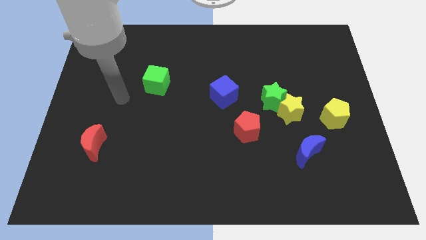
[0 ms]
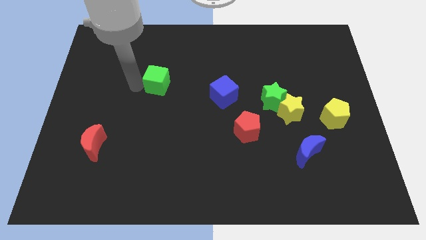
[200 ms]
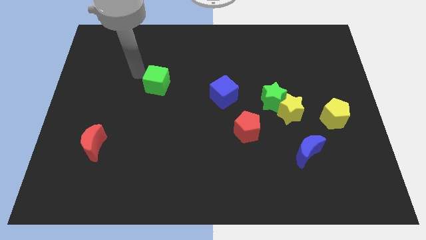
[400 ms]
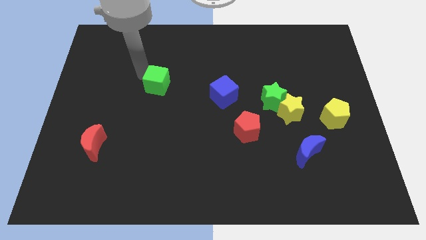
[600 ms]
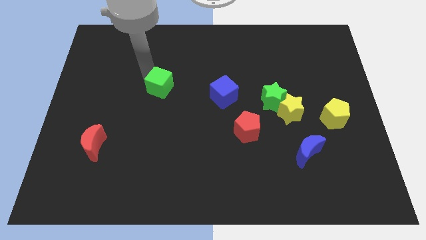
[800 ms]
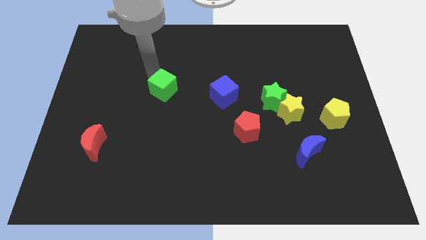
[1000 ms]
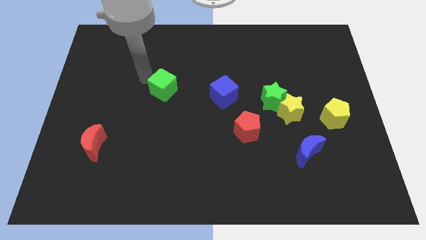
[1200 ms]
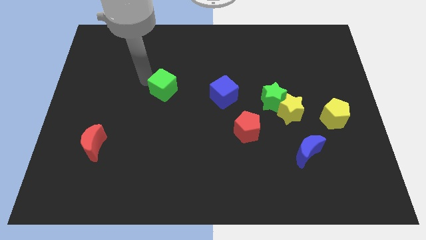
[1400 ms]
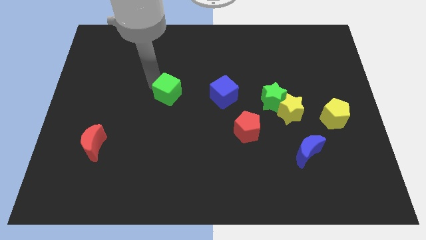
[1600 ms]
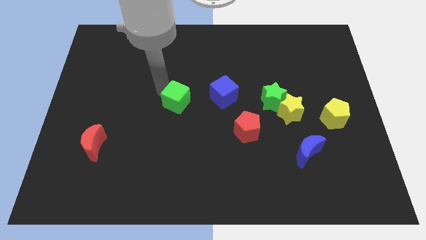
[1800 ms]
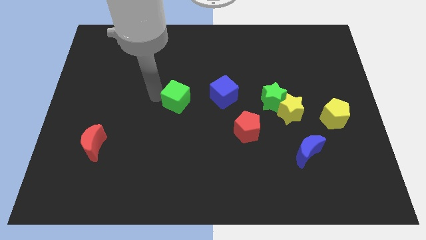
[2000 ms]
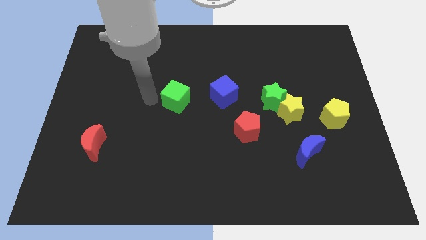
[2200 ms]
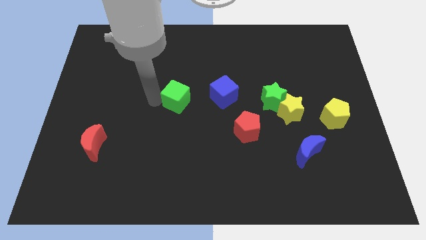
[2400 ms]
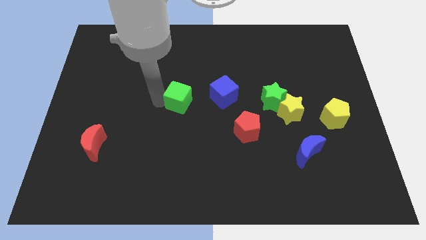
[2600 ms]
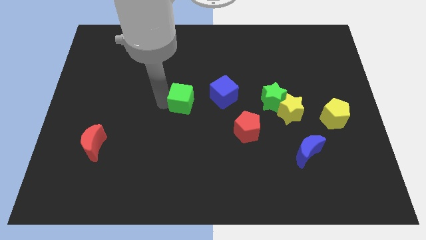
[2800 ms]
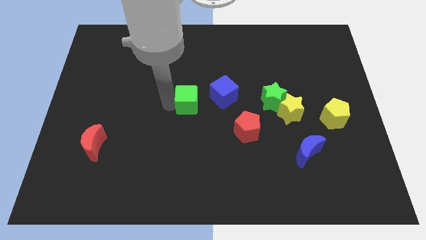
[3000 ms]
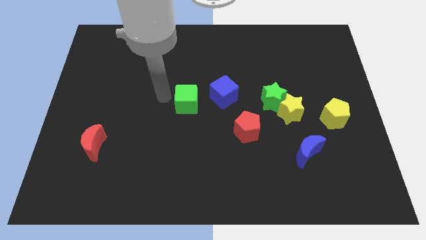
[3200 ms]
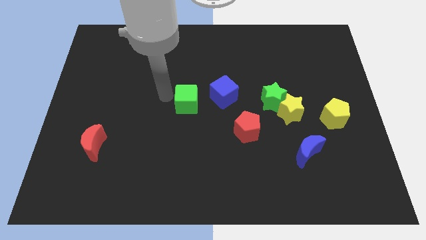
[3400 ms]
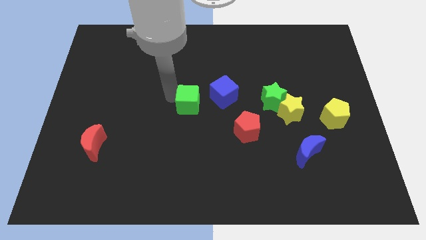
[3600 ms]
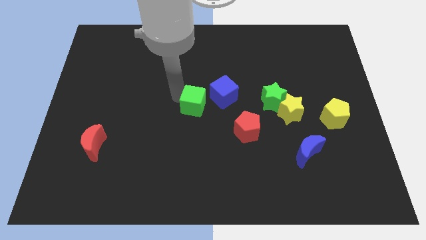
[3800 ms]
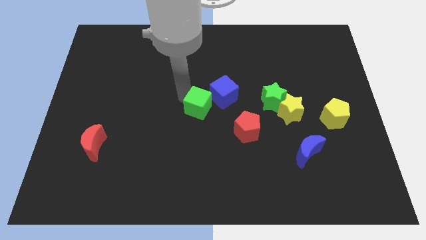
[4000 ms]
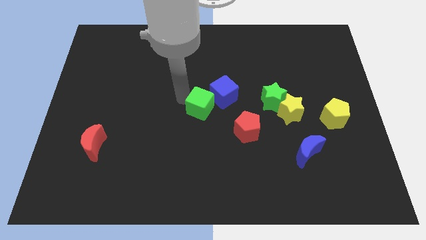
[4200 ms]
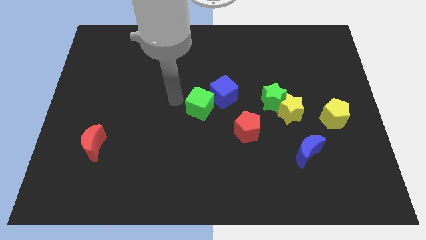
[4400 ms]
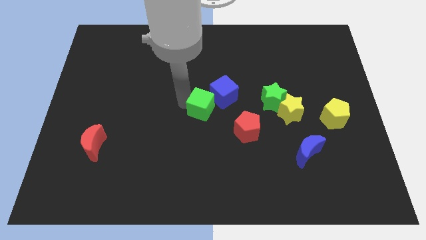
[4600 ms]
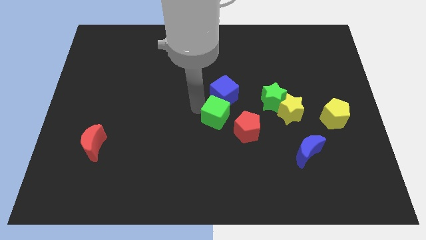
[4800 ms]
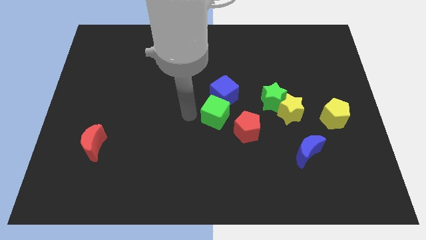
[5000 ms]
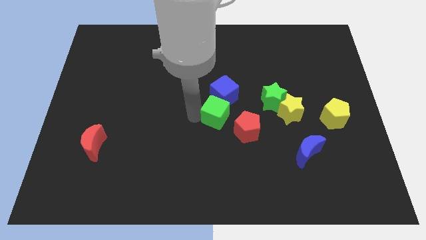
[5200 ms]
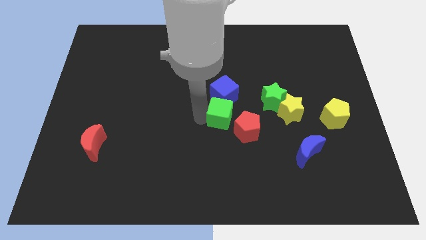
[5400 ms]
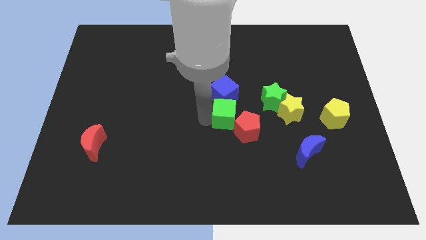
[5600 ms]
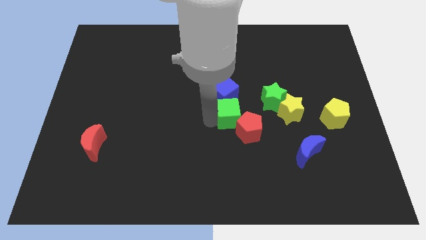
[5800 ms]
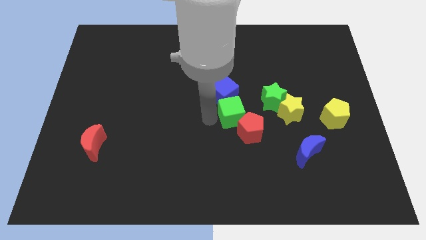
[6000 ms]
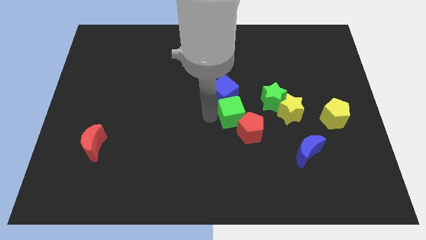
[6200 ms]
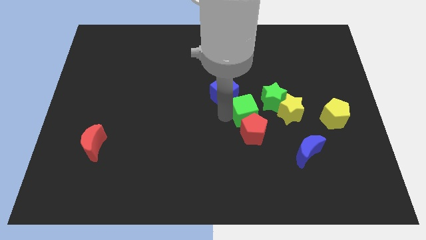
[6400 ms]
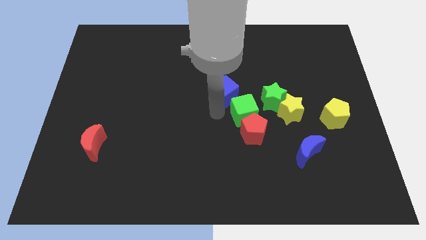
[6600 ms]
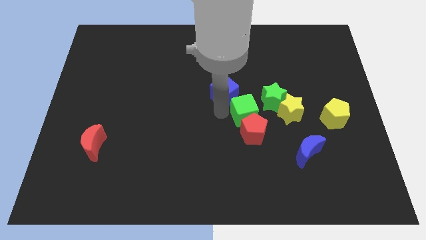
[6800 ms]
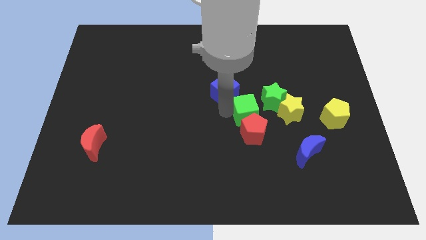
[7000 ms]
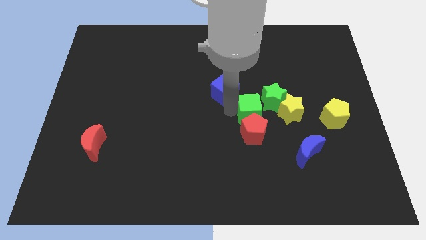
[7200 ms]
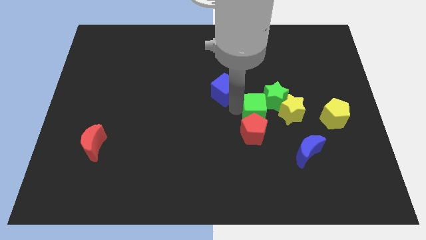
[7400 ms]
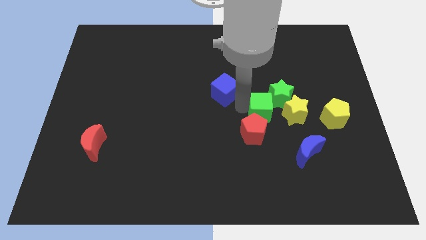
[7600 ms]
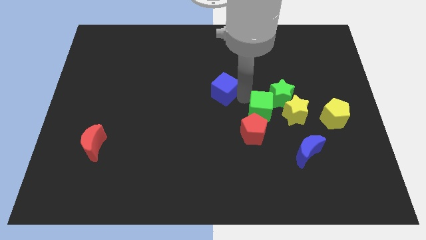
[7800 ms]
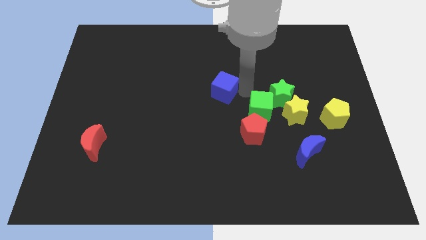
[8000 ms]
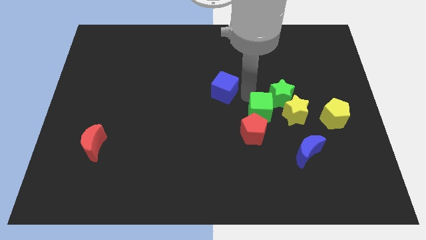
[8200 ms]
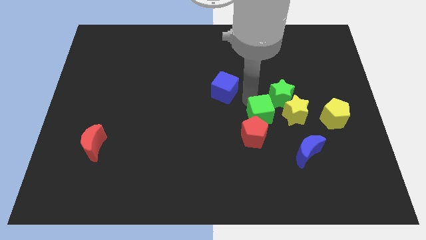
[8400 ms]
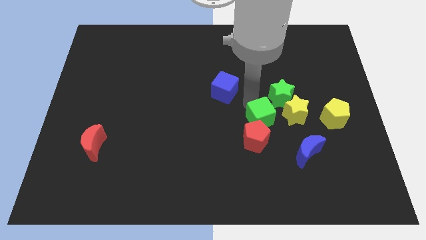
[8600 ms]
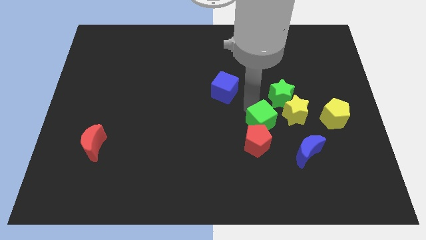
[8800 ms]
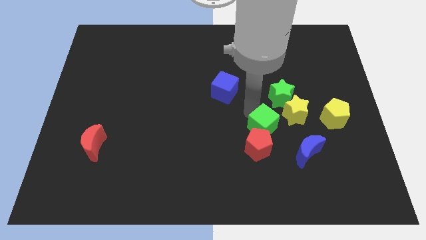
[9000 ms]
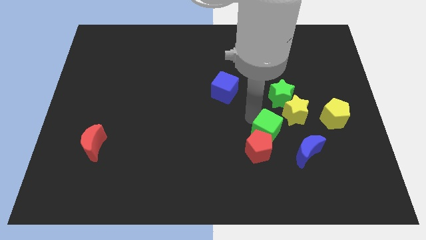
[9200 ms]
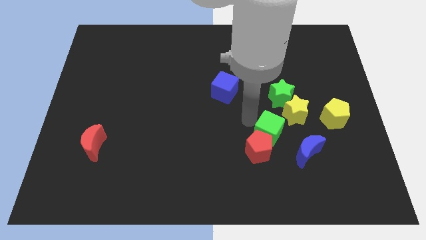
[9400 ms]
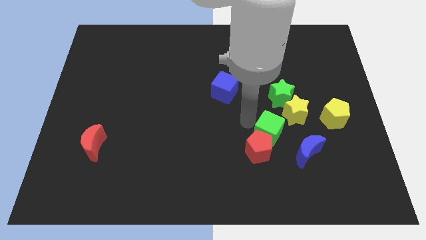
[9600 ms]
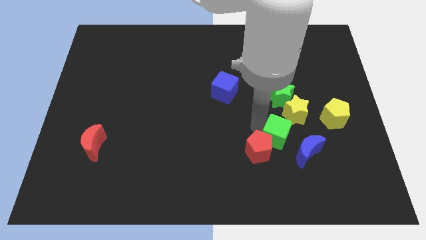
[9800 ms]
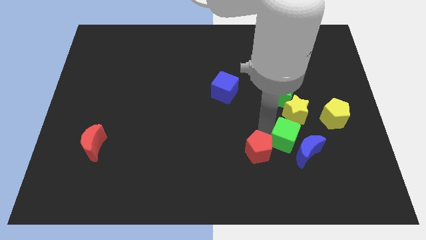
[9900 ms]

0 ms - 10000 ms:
push the green cube close to the blue moon

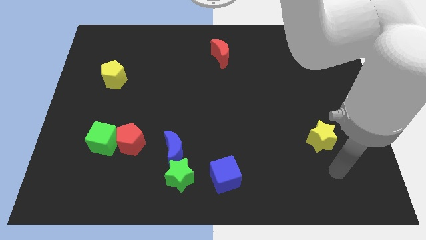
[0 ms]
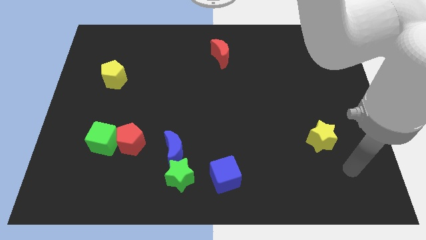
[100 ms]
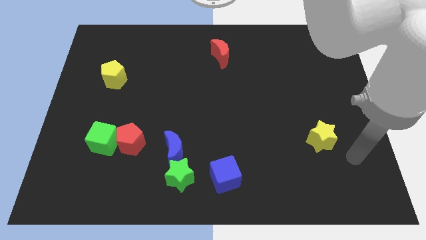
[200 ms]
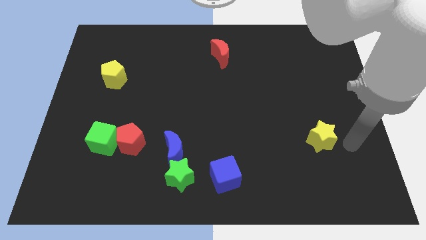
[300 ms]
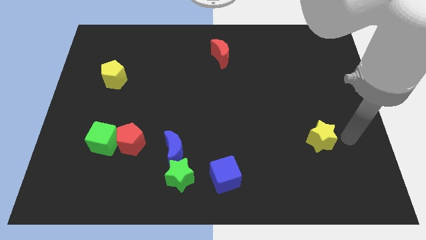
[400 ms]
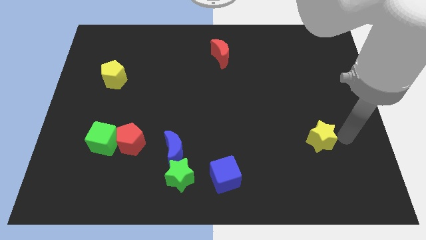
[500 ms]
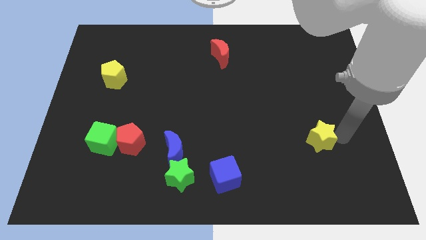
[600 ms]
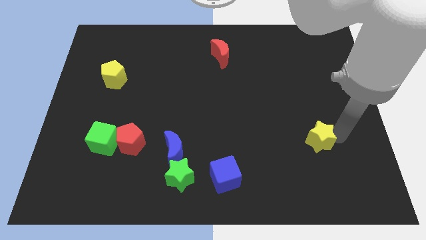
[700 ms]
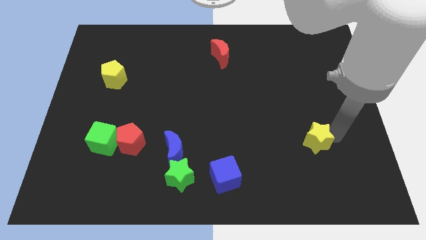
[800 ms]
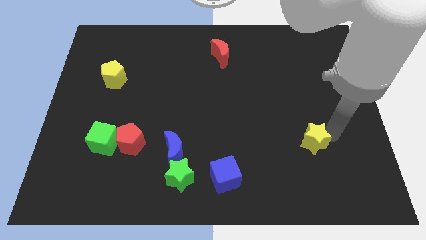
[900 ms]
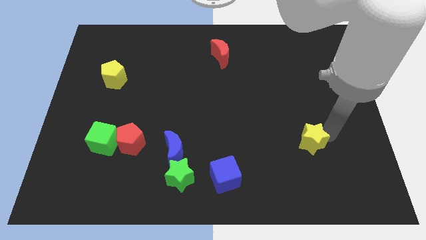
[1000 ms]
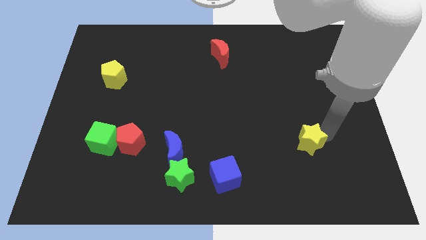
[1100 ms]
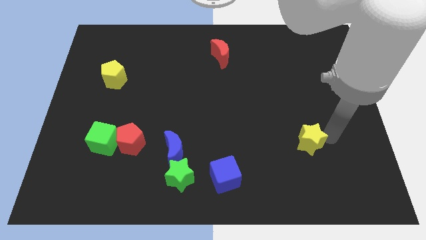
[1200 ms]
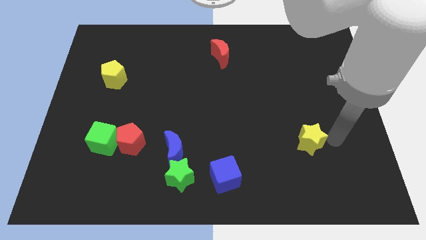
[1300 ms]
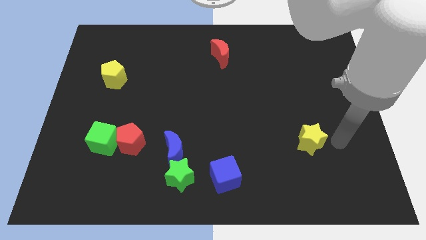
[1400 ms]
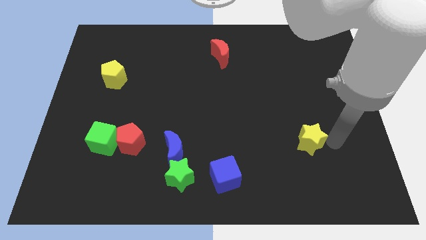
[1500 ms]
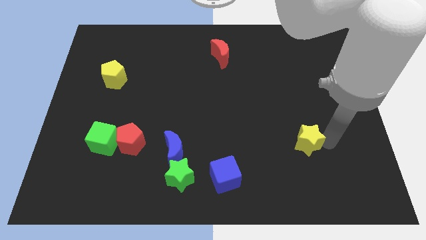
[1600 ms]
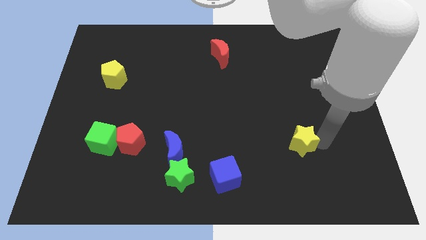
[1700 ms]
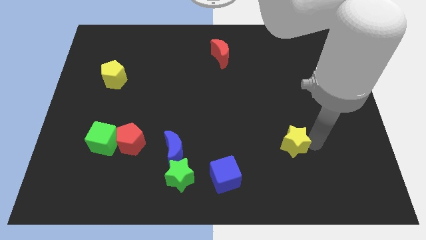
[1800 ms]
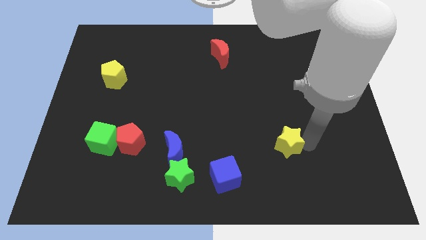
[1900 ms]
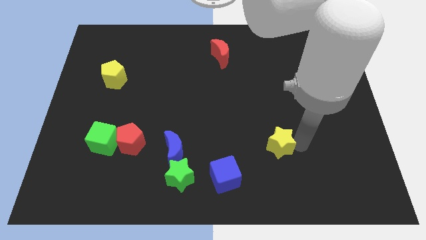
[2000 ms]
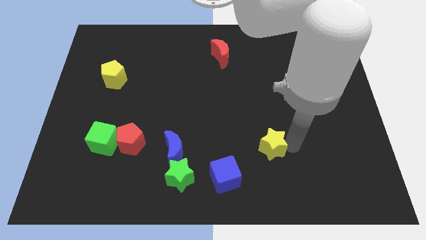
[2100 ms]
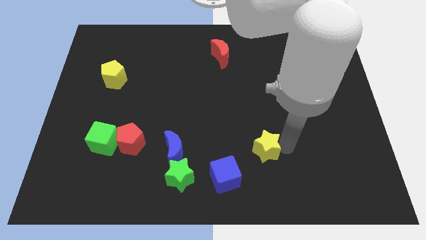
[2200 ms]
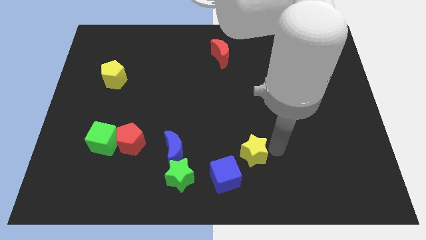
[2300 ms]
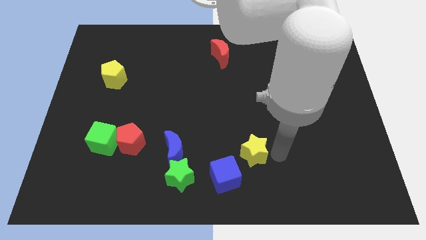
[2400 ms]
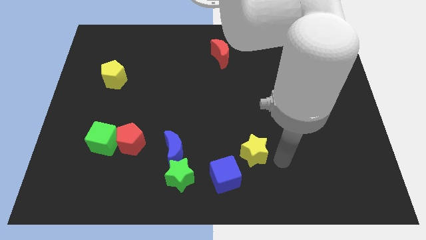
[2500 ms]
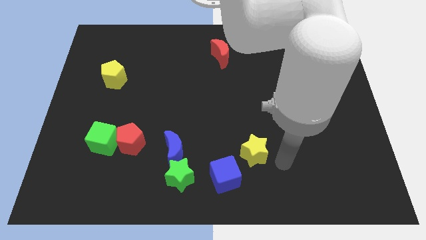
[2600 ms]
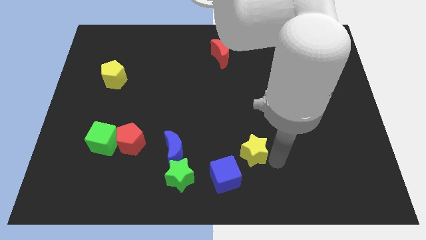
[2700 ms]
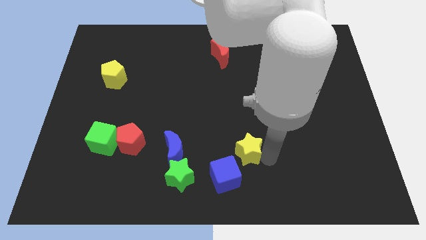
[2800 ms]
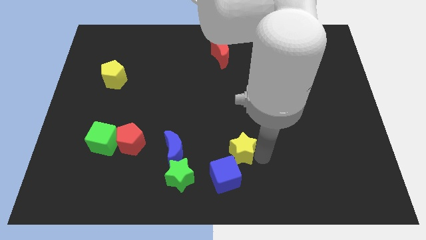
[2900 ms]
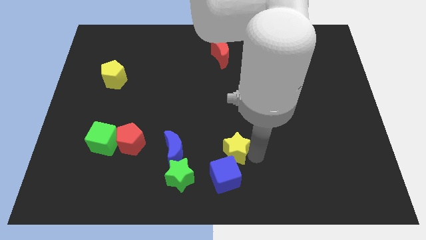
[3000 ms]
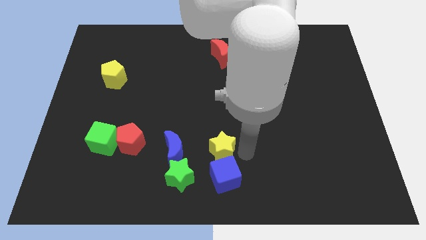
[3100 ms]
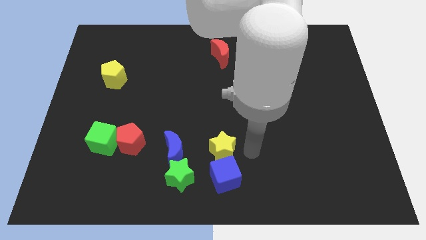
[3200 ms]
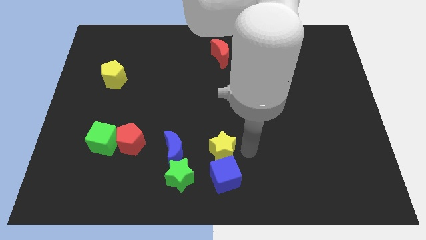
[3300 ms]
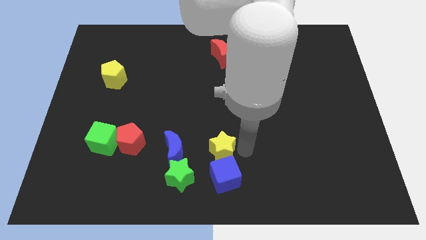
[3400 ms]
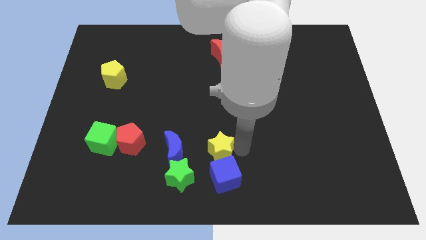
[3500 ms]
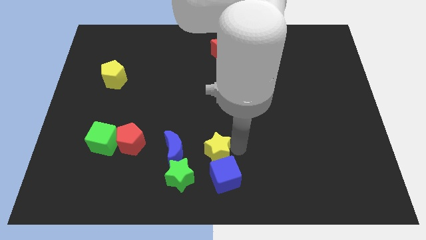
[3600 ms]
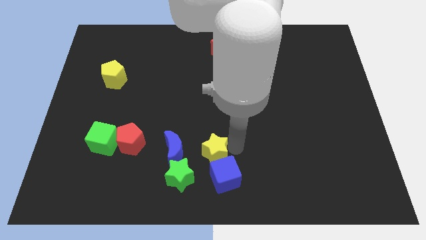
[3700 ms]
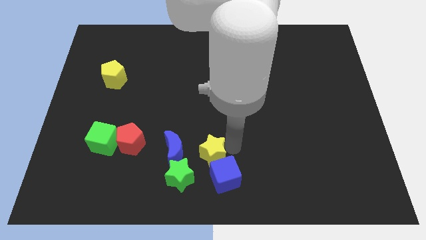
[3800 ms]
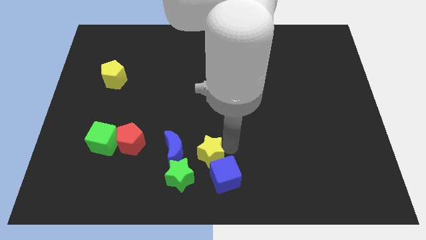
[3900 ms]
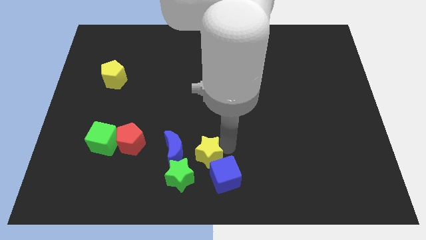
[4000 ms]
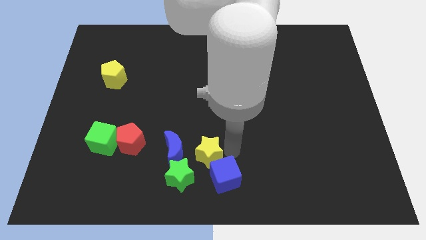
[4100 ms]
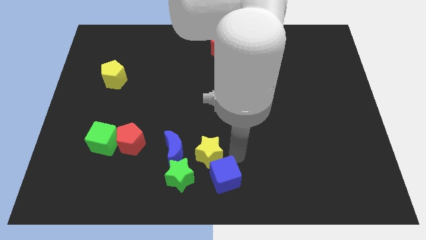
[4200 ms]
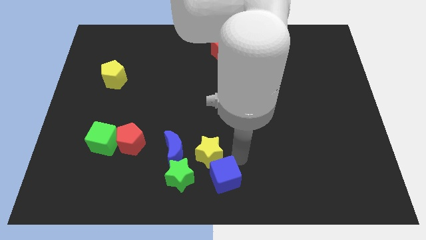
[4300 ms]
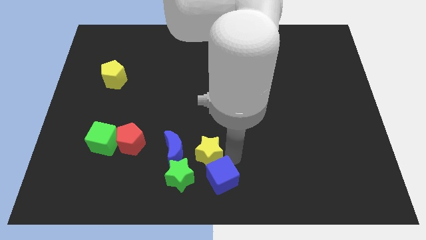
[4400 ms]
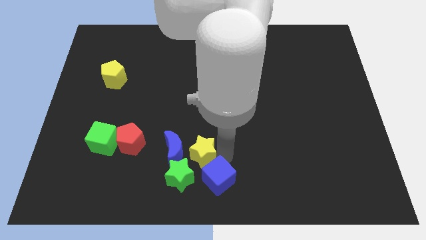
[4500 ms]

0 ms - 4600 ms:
push the yellow star to the blue moon
